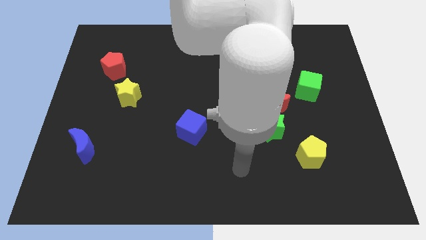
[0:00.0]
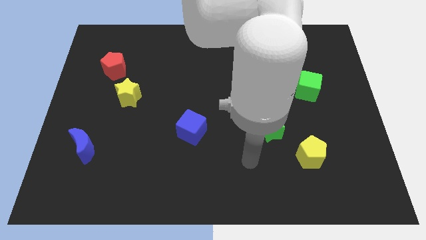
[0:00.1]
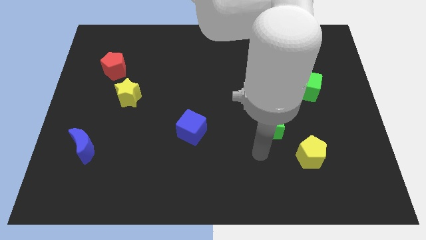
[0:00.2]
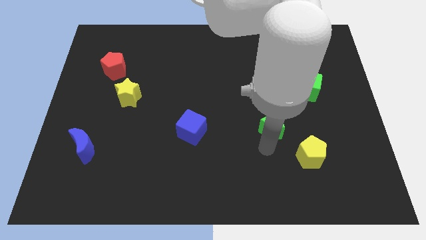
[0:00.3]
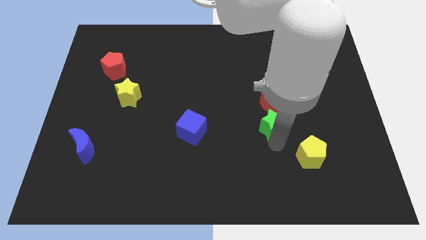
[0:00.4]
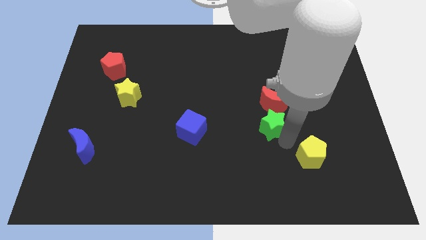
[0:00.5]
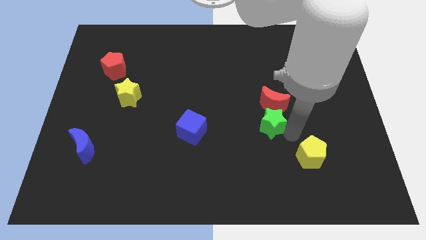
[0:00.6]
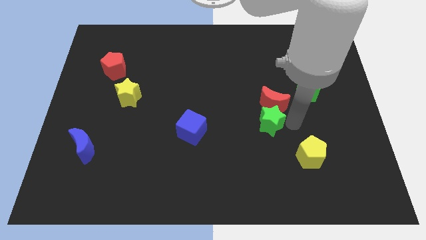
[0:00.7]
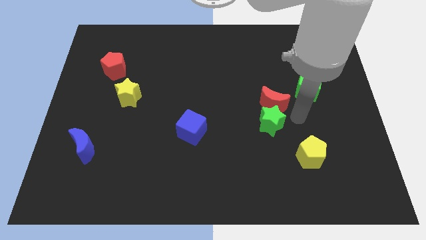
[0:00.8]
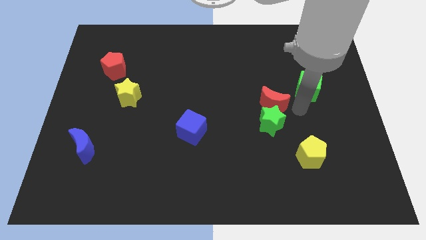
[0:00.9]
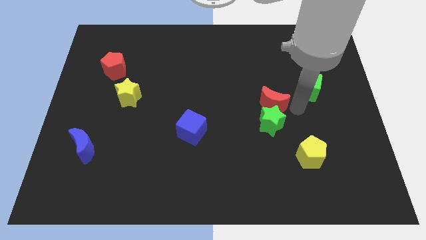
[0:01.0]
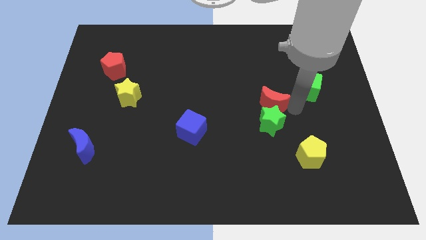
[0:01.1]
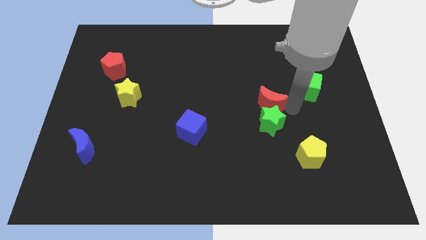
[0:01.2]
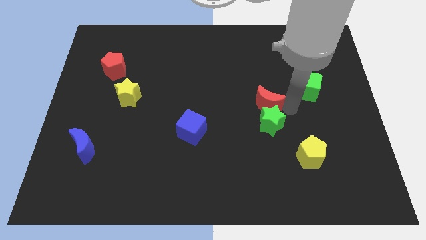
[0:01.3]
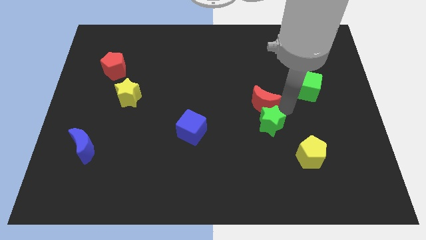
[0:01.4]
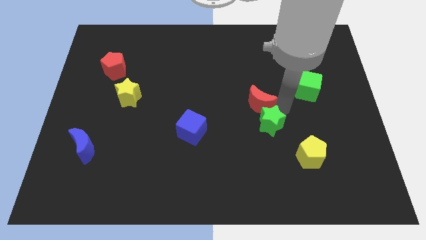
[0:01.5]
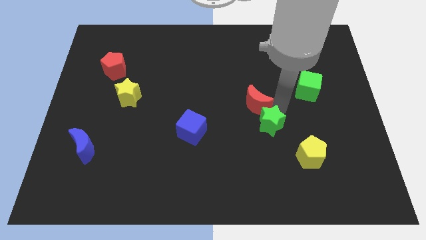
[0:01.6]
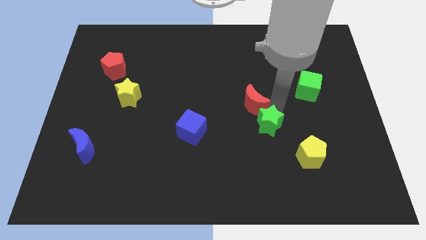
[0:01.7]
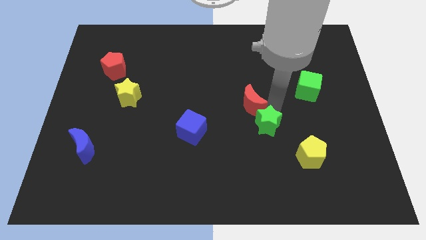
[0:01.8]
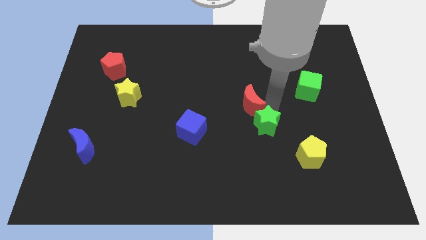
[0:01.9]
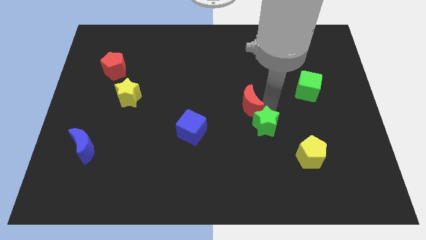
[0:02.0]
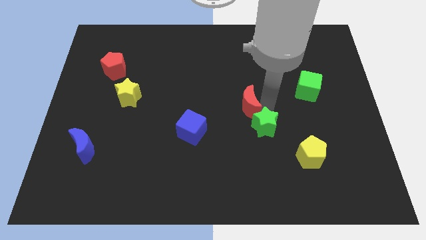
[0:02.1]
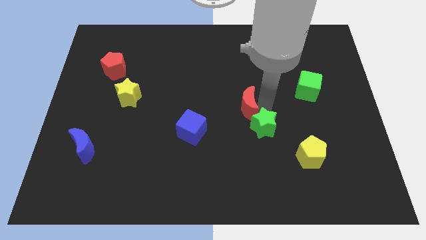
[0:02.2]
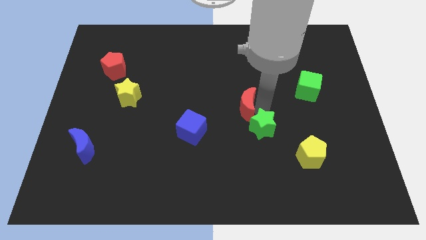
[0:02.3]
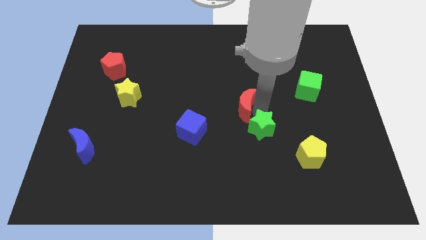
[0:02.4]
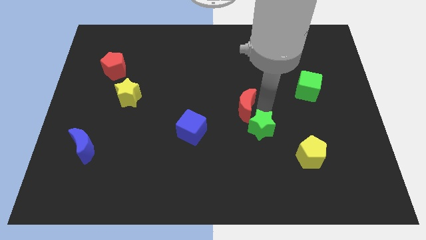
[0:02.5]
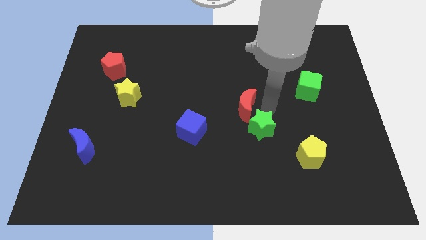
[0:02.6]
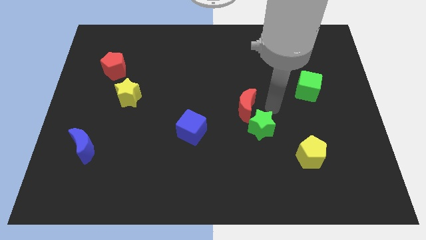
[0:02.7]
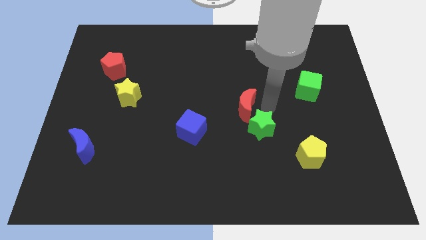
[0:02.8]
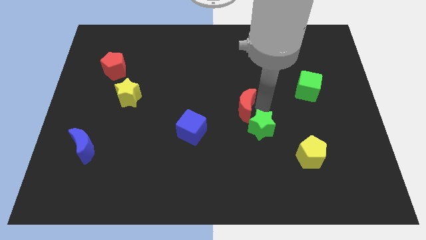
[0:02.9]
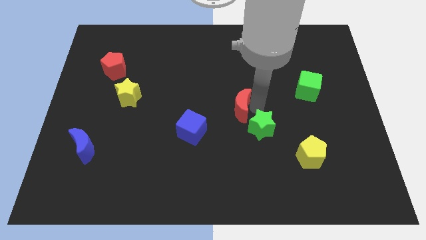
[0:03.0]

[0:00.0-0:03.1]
move the red moon away from the green star and green cube

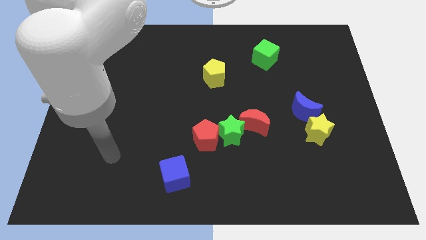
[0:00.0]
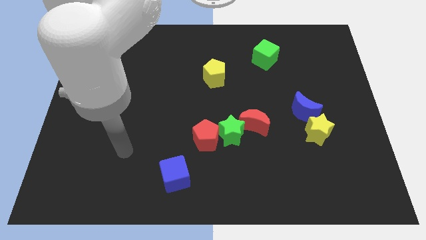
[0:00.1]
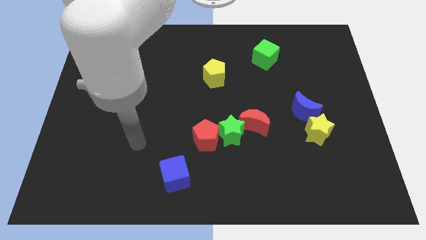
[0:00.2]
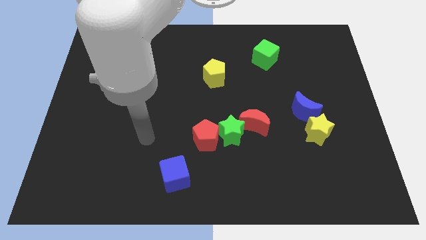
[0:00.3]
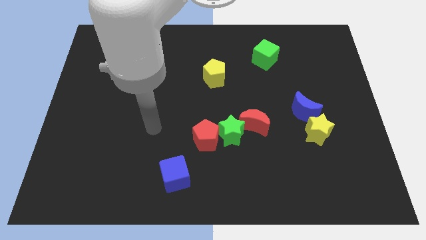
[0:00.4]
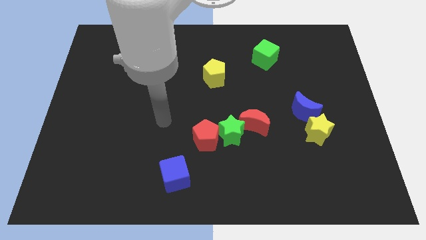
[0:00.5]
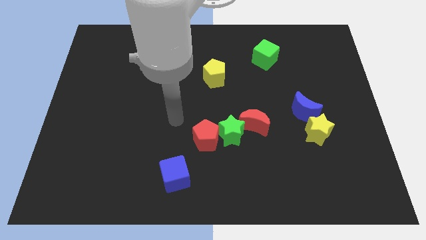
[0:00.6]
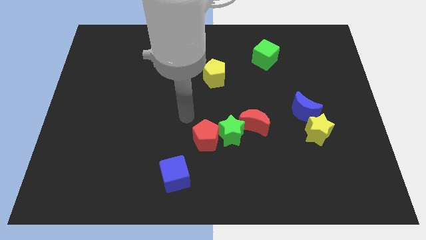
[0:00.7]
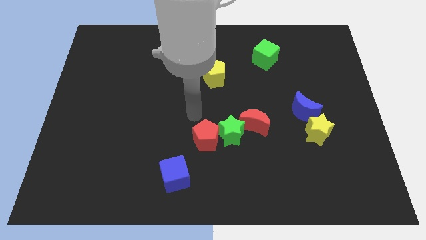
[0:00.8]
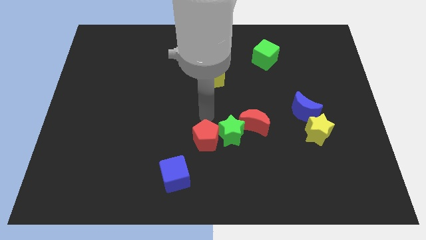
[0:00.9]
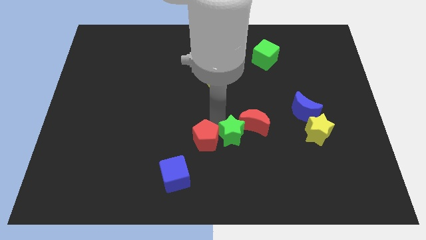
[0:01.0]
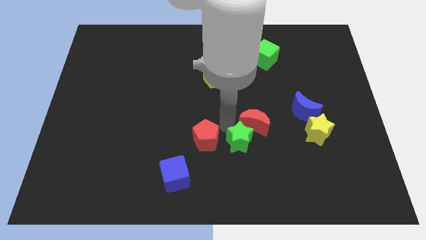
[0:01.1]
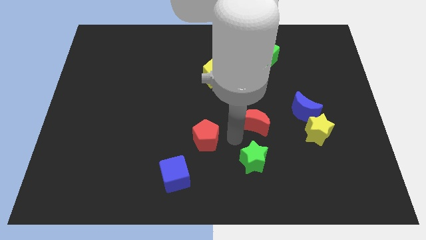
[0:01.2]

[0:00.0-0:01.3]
pull the red pentagon apart from the green star

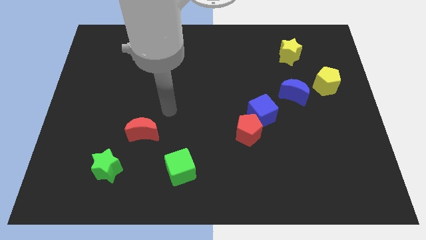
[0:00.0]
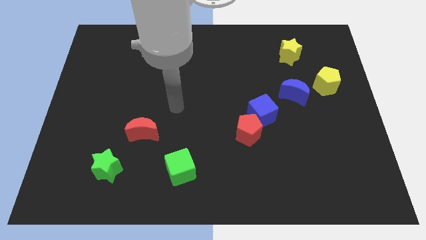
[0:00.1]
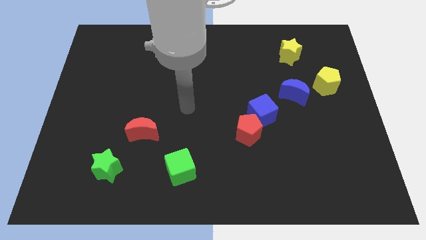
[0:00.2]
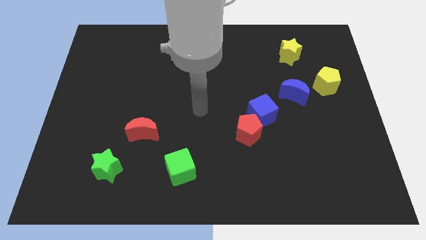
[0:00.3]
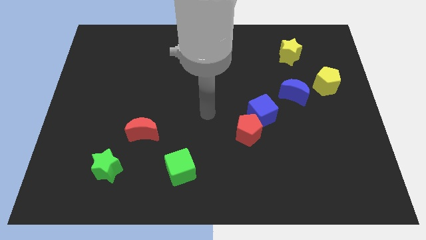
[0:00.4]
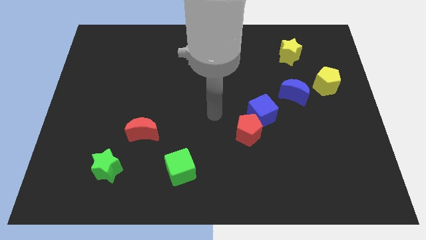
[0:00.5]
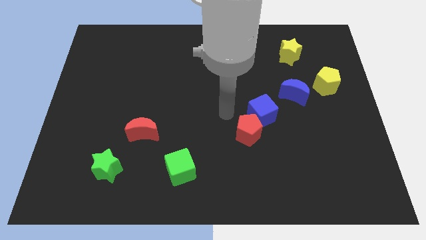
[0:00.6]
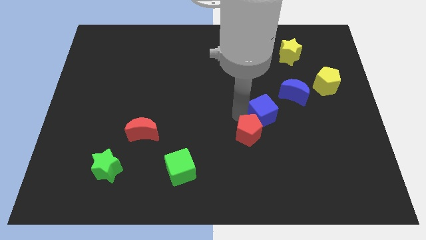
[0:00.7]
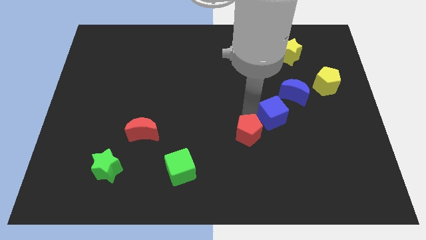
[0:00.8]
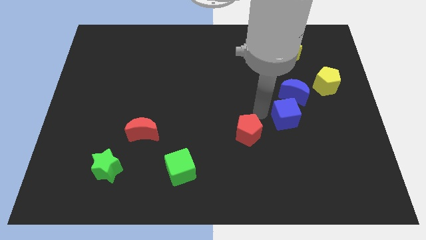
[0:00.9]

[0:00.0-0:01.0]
pull the red pentagon apart from the blue cube

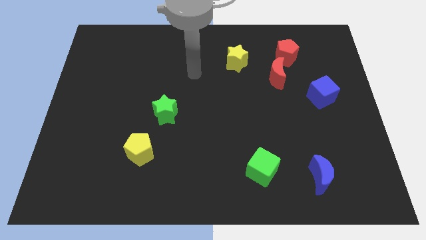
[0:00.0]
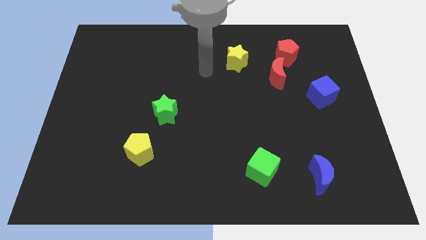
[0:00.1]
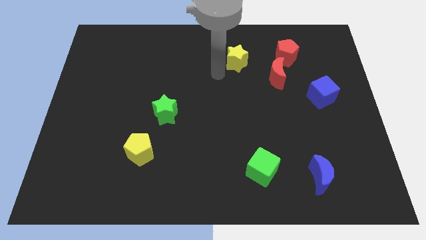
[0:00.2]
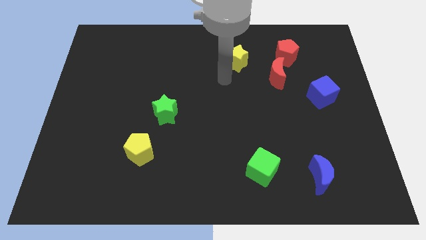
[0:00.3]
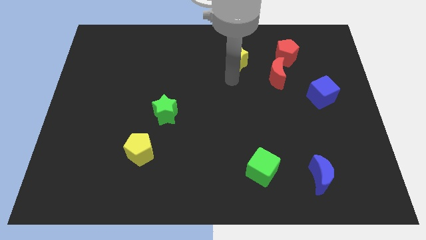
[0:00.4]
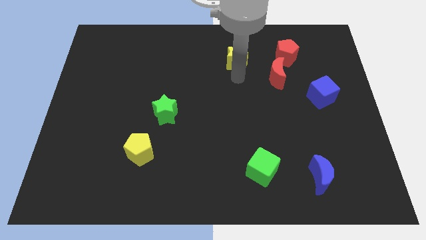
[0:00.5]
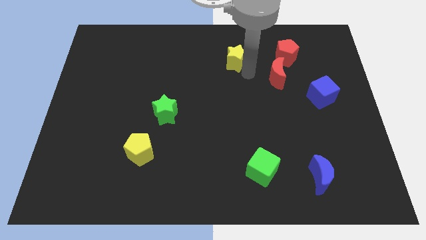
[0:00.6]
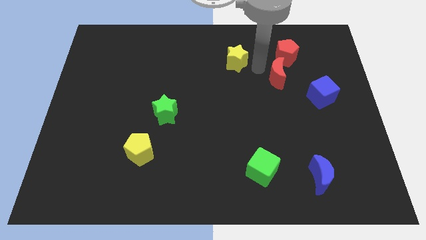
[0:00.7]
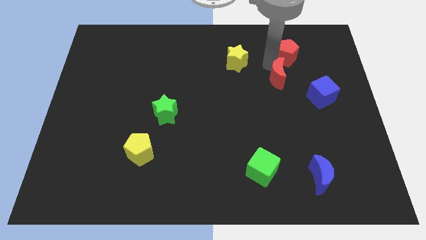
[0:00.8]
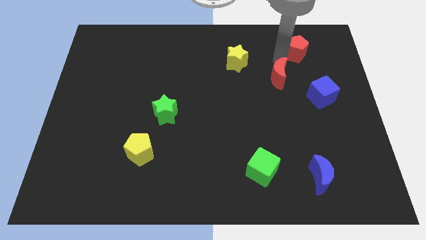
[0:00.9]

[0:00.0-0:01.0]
pull the red moon apart from the red pentagon

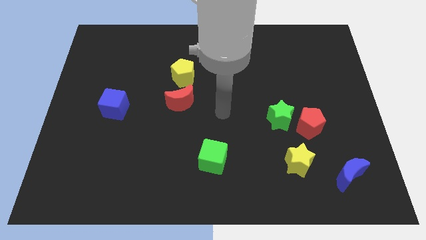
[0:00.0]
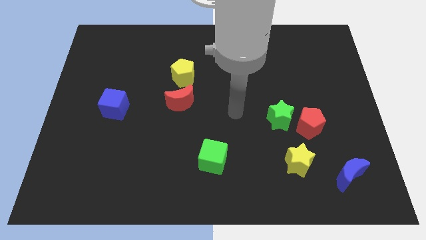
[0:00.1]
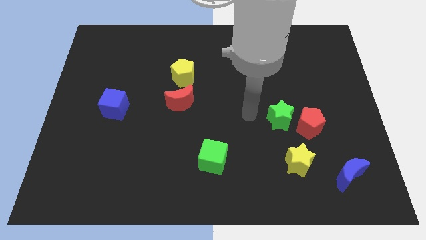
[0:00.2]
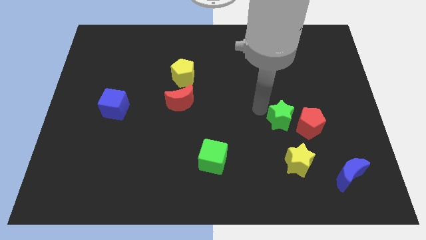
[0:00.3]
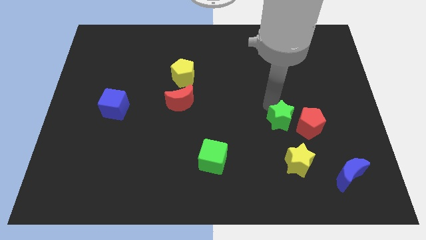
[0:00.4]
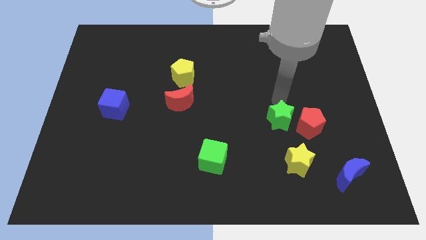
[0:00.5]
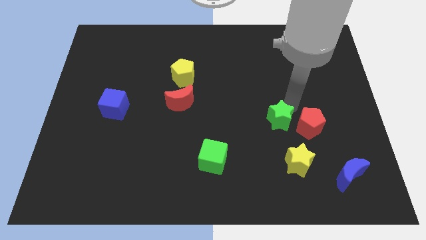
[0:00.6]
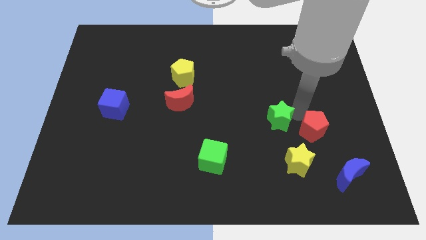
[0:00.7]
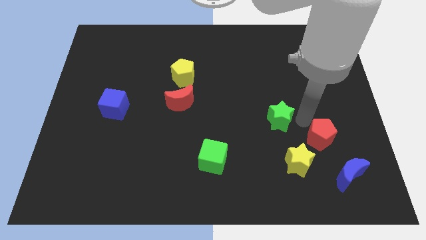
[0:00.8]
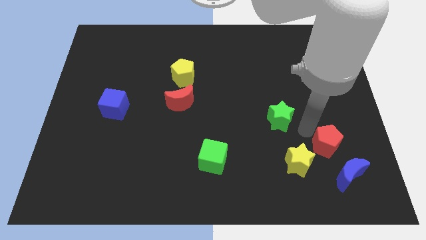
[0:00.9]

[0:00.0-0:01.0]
move the green star away from the red pentagon

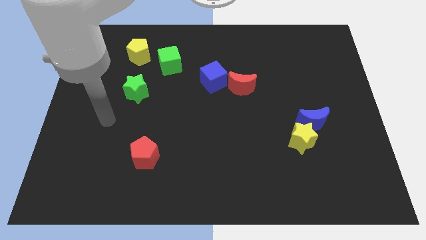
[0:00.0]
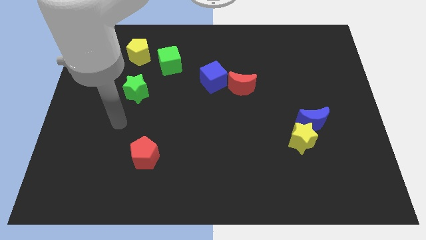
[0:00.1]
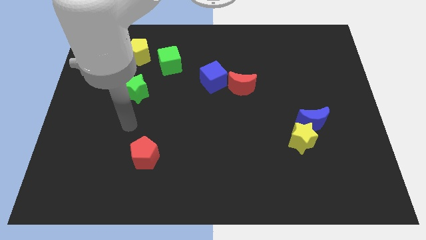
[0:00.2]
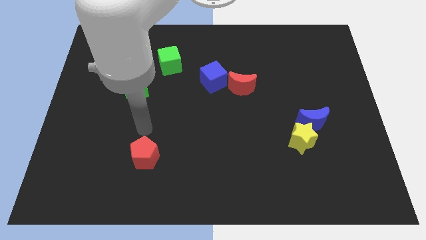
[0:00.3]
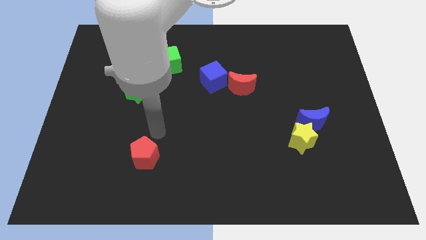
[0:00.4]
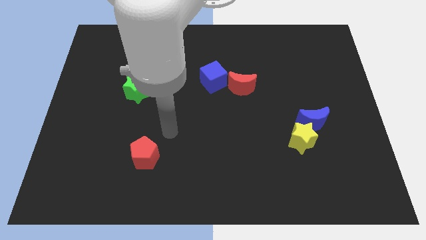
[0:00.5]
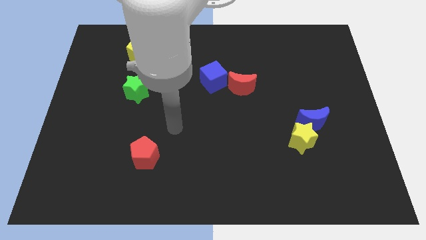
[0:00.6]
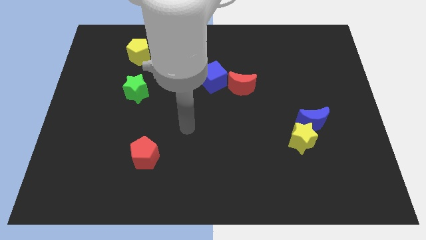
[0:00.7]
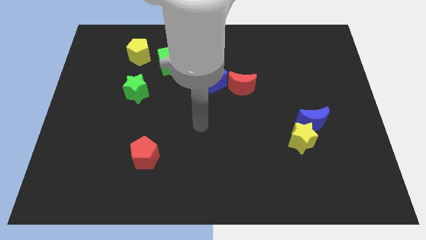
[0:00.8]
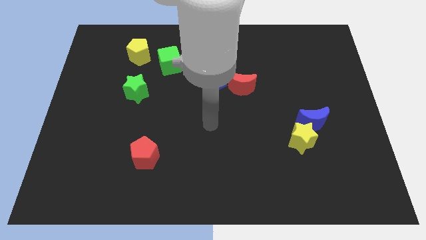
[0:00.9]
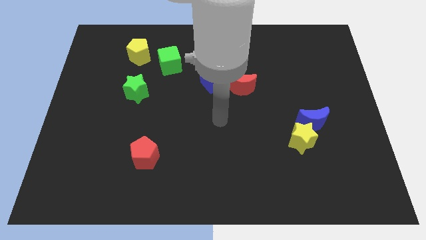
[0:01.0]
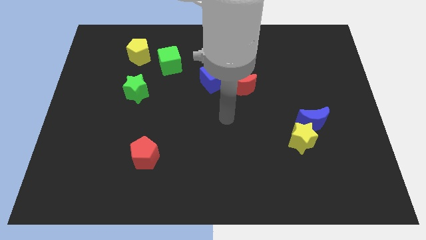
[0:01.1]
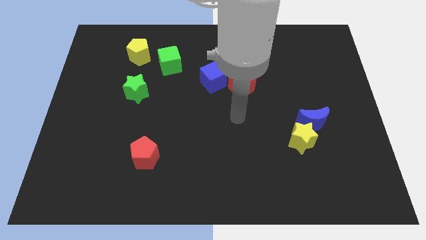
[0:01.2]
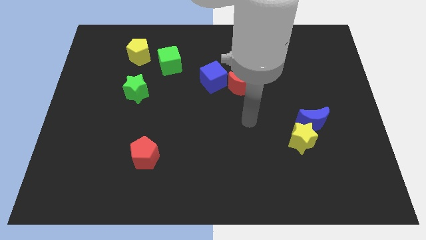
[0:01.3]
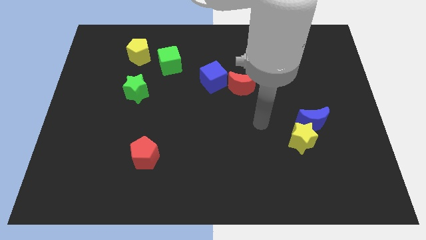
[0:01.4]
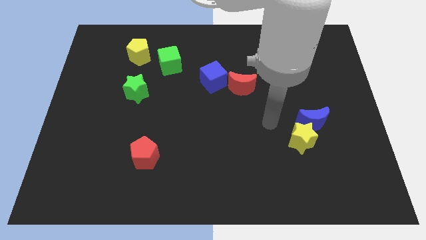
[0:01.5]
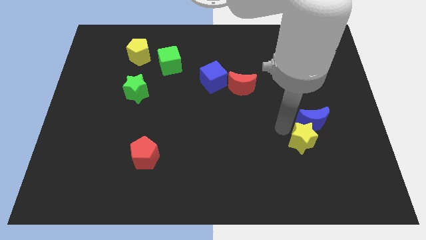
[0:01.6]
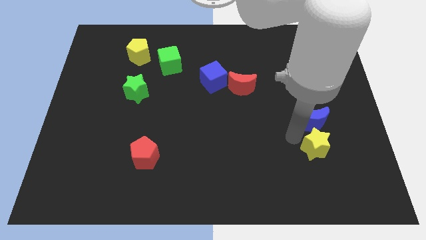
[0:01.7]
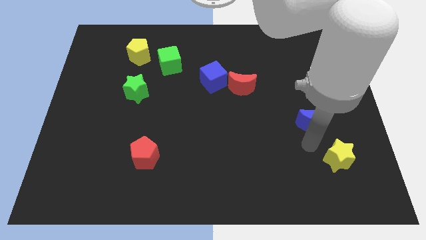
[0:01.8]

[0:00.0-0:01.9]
separate the blue moon from the yellow star
